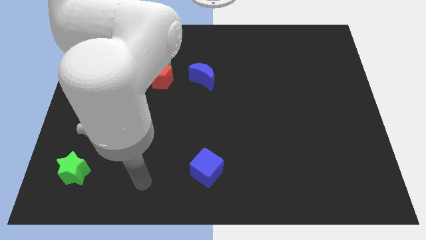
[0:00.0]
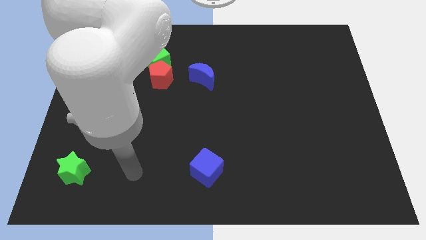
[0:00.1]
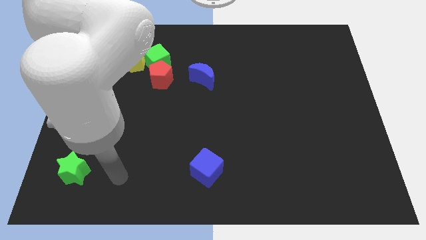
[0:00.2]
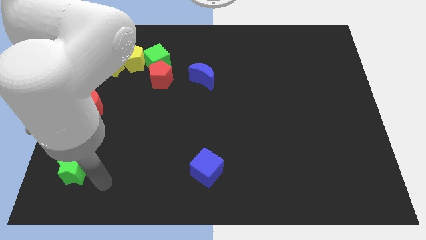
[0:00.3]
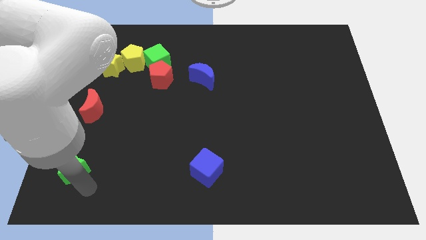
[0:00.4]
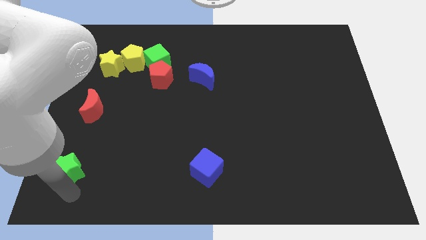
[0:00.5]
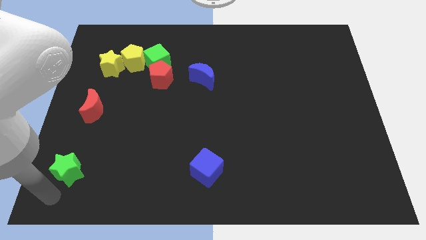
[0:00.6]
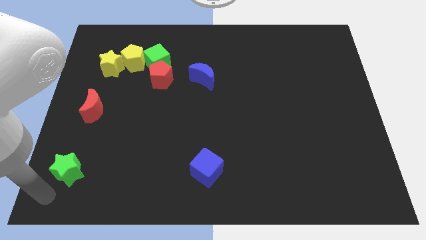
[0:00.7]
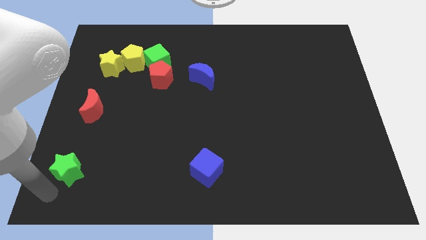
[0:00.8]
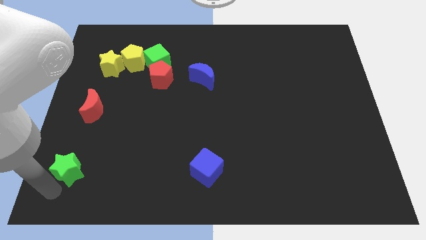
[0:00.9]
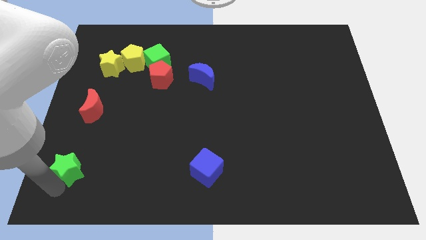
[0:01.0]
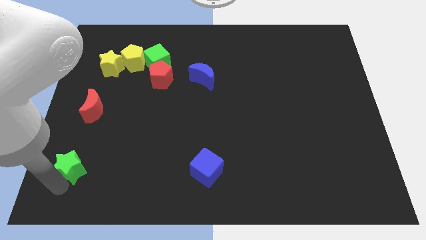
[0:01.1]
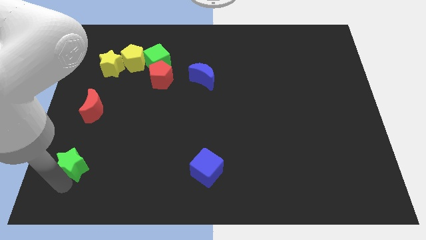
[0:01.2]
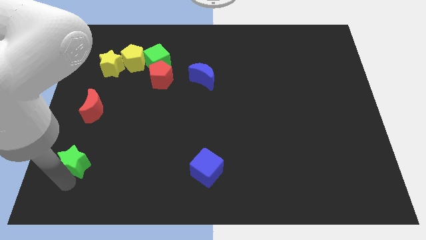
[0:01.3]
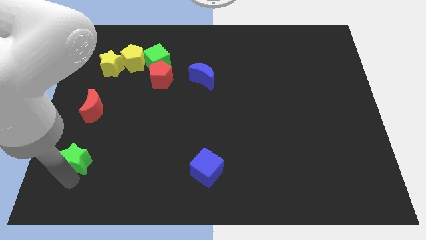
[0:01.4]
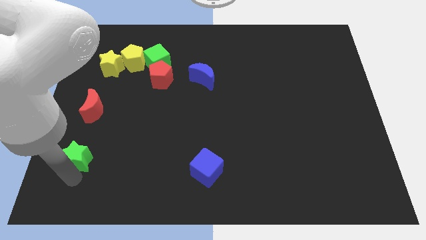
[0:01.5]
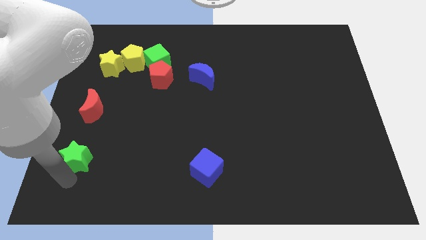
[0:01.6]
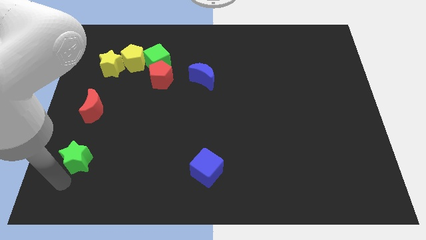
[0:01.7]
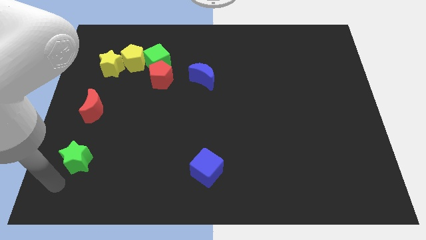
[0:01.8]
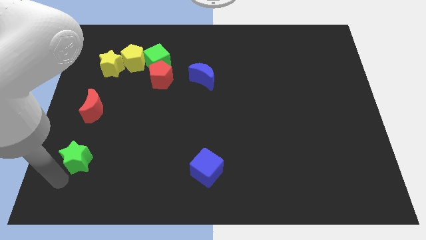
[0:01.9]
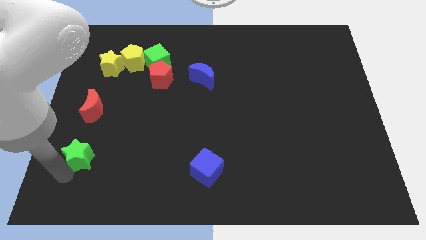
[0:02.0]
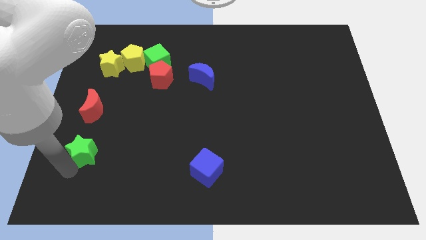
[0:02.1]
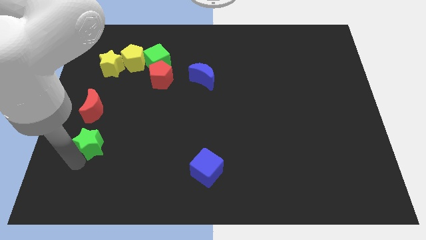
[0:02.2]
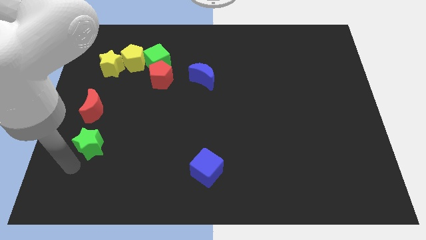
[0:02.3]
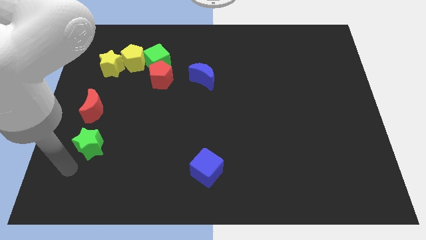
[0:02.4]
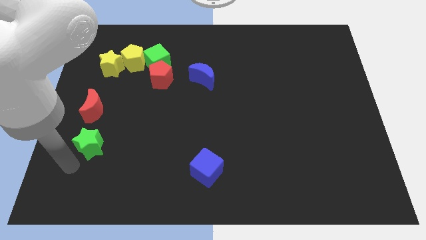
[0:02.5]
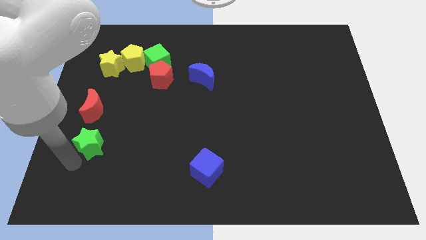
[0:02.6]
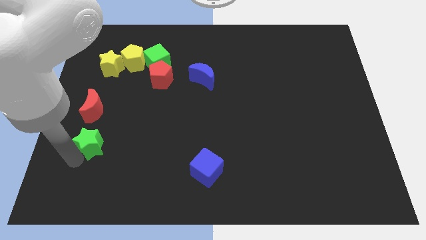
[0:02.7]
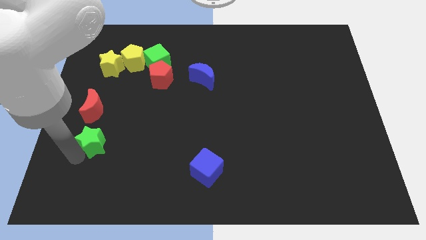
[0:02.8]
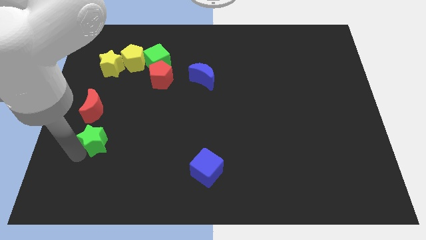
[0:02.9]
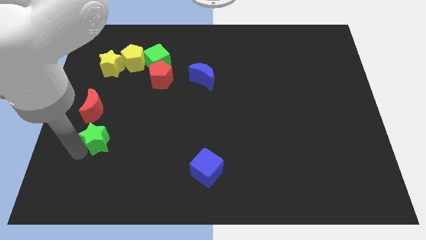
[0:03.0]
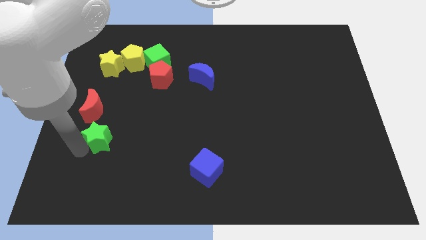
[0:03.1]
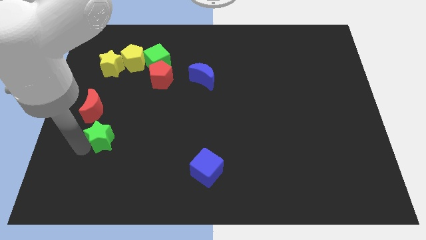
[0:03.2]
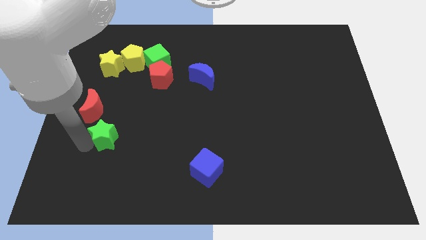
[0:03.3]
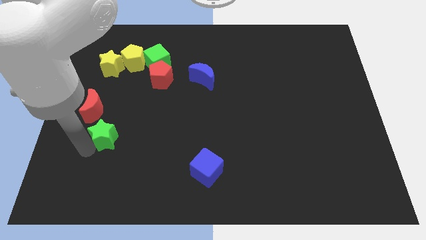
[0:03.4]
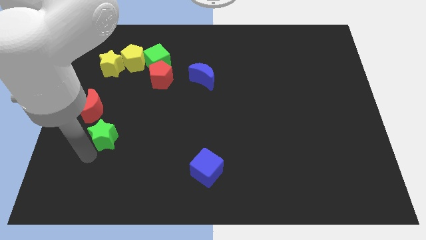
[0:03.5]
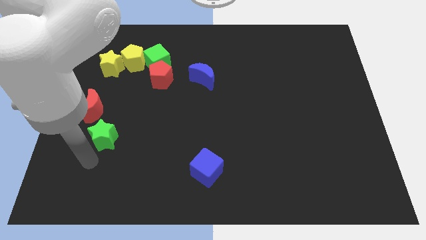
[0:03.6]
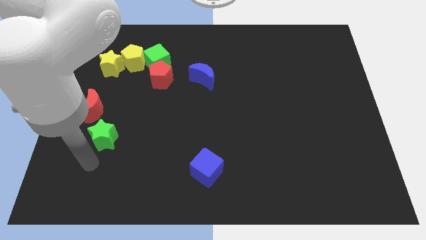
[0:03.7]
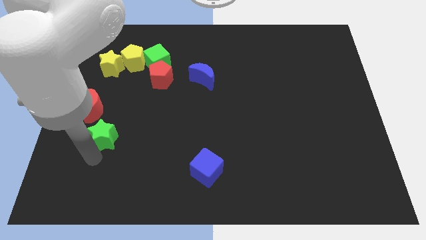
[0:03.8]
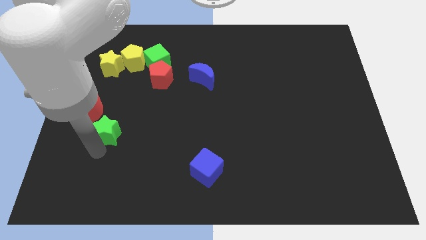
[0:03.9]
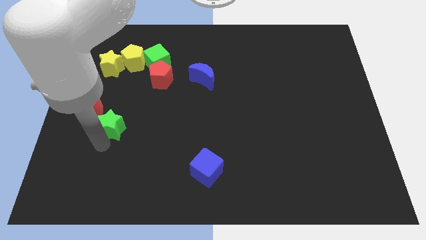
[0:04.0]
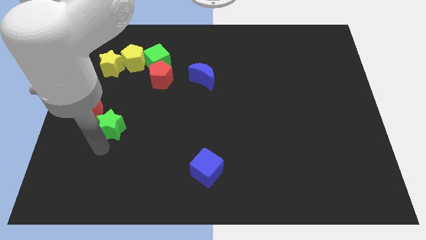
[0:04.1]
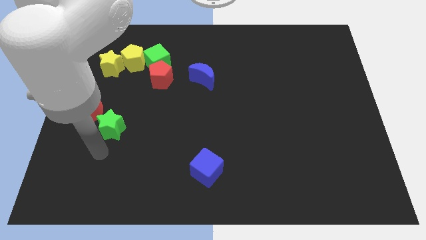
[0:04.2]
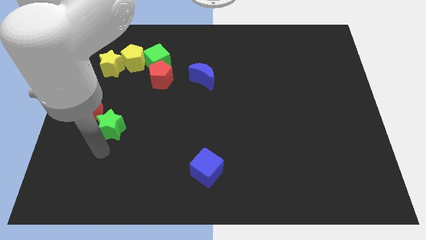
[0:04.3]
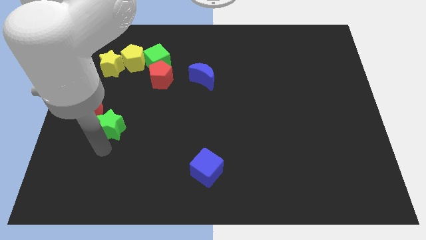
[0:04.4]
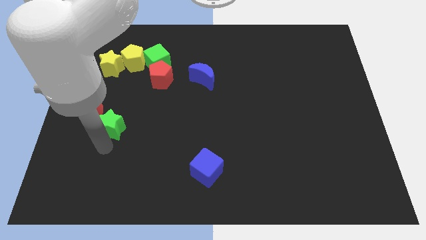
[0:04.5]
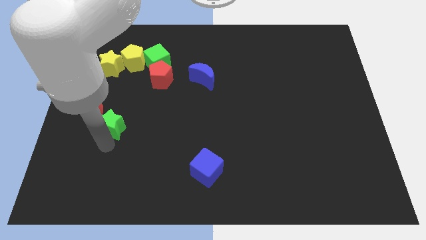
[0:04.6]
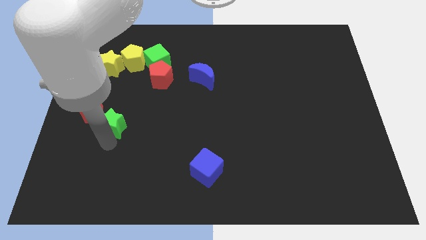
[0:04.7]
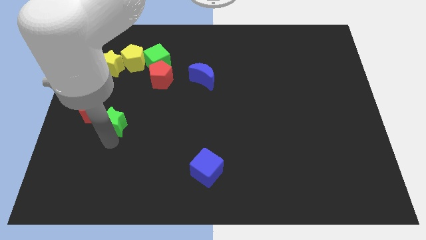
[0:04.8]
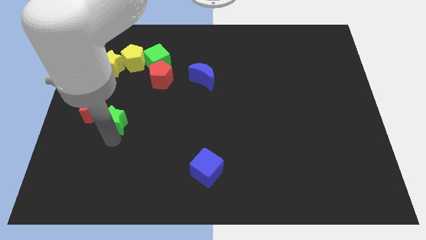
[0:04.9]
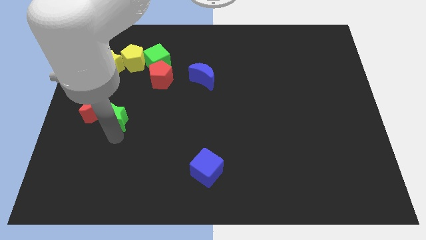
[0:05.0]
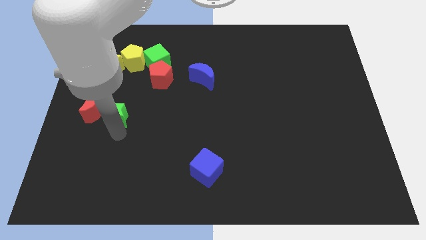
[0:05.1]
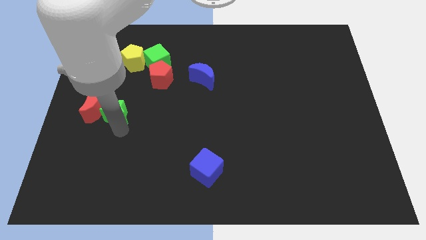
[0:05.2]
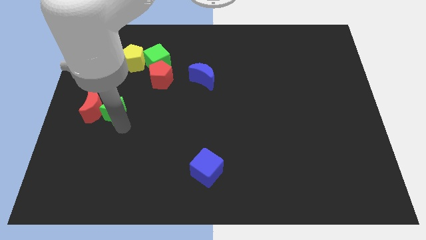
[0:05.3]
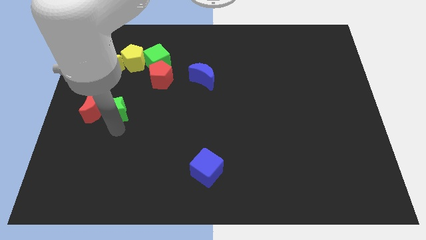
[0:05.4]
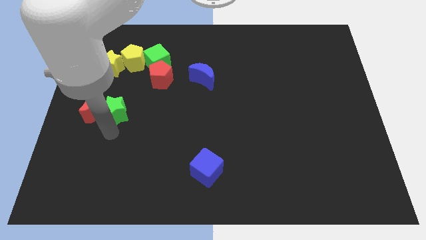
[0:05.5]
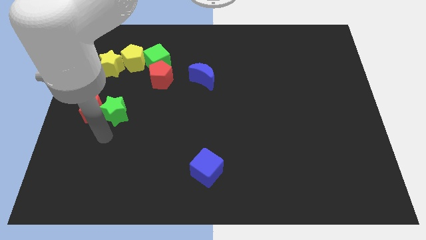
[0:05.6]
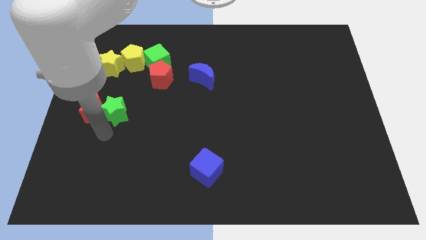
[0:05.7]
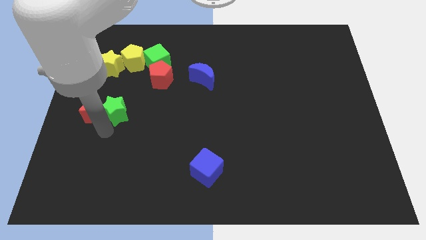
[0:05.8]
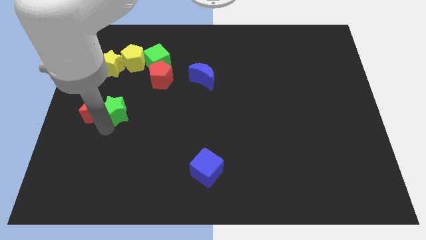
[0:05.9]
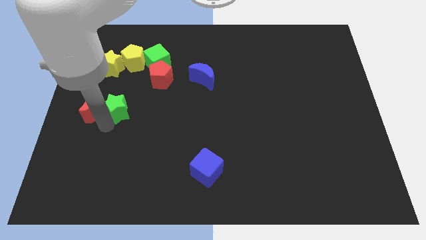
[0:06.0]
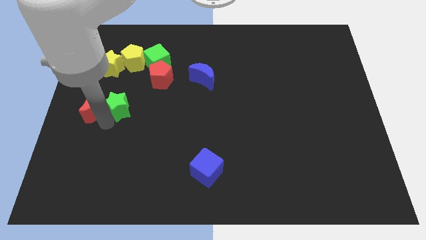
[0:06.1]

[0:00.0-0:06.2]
move the green star to the bottom side of the yellow pentagon

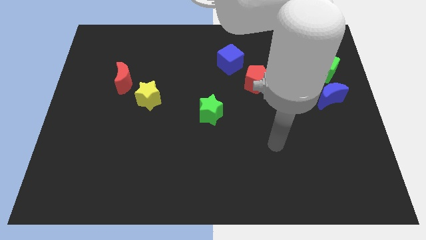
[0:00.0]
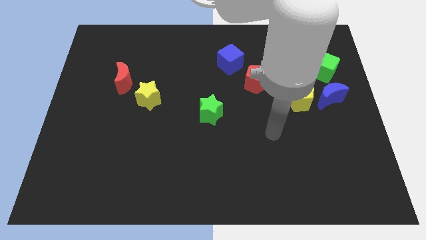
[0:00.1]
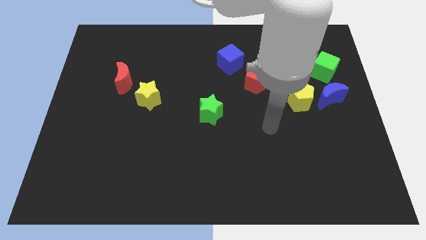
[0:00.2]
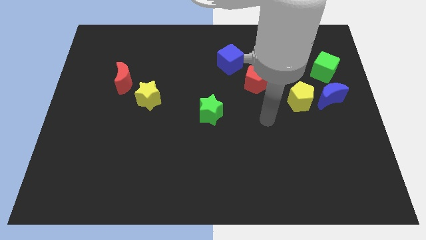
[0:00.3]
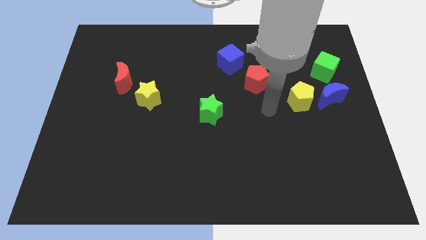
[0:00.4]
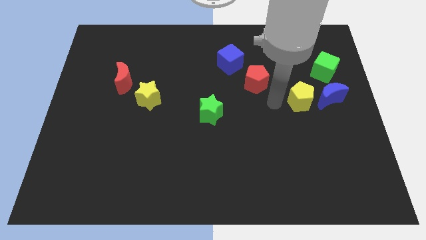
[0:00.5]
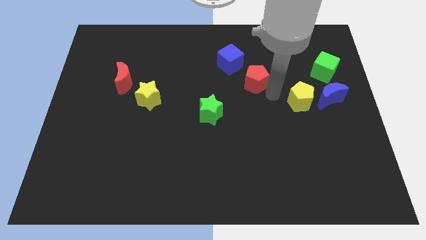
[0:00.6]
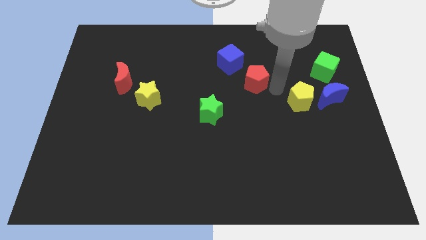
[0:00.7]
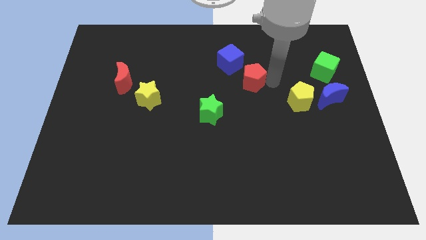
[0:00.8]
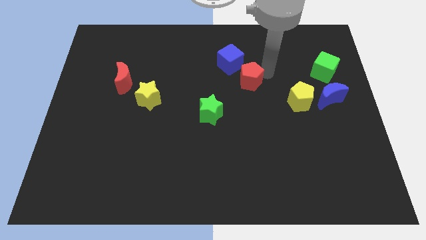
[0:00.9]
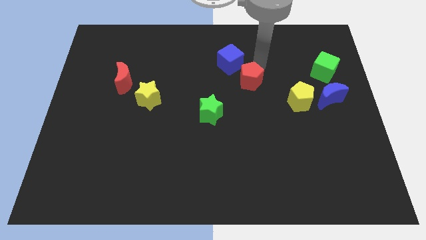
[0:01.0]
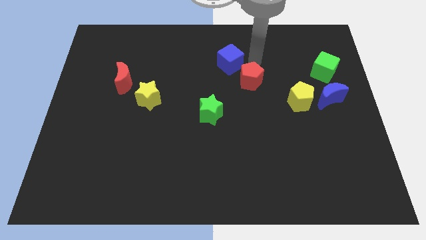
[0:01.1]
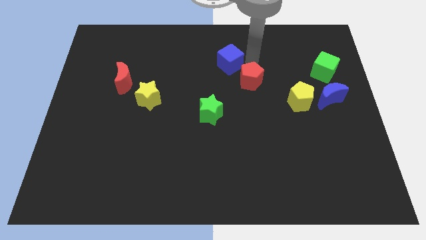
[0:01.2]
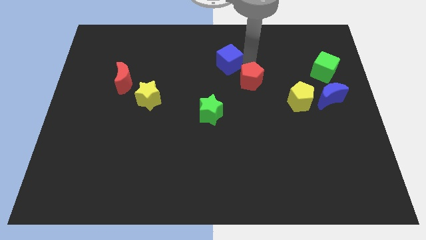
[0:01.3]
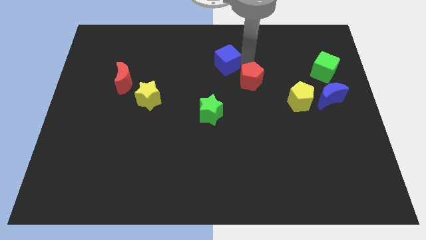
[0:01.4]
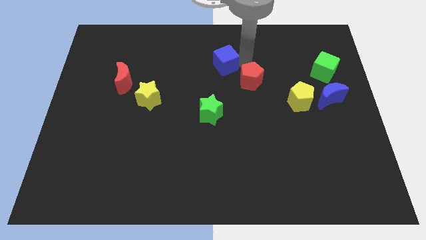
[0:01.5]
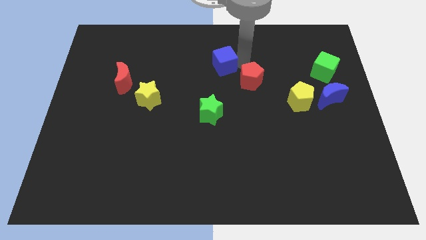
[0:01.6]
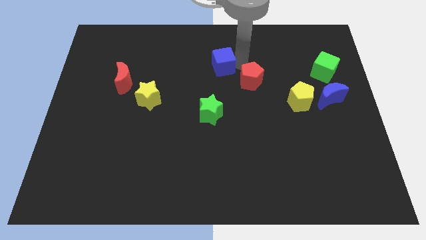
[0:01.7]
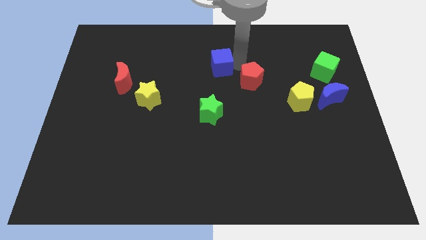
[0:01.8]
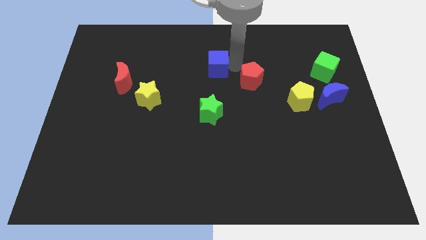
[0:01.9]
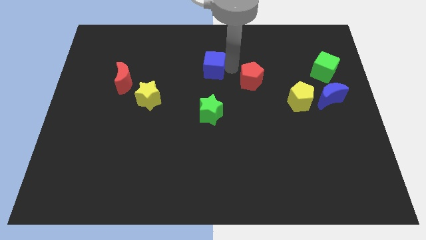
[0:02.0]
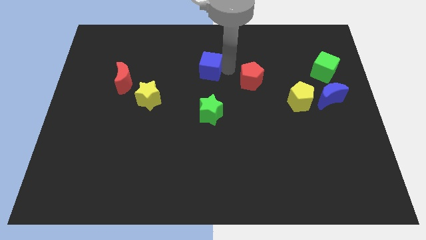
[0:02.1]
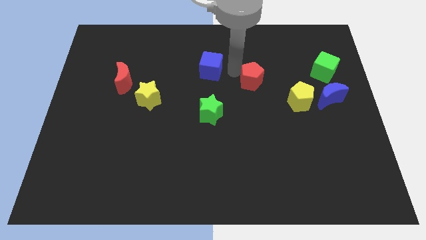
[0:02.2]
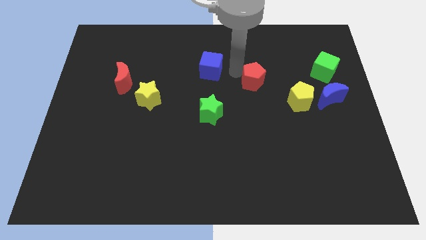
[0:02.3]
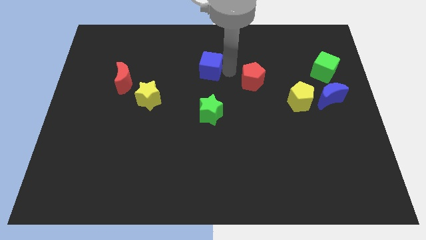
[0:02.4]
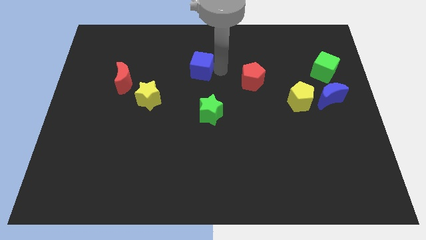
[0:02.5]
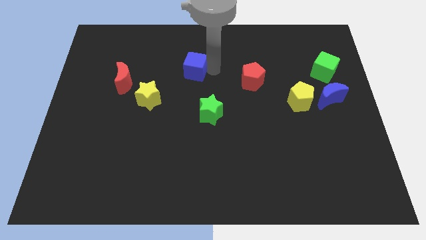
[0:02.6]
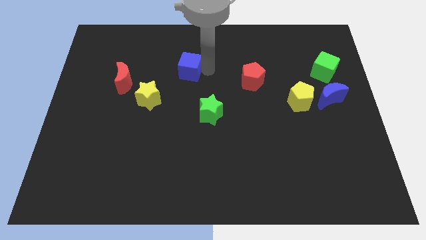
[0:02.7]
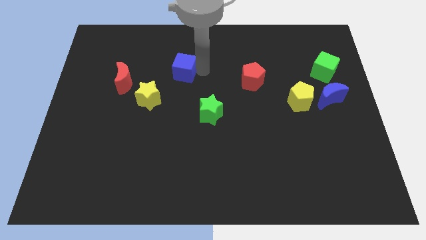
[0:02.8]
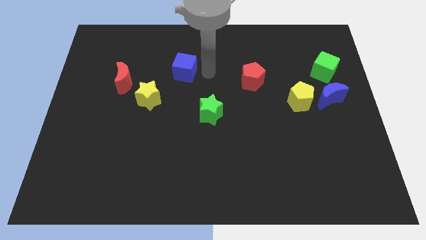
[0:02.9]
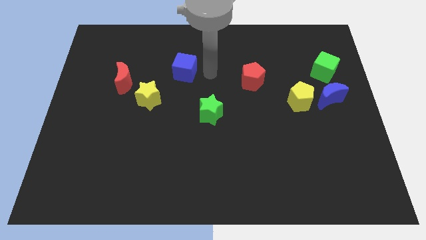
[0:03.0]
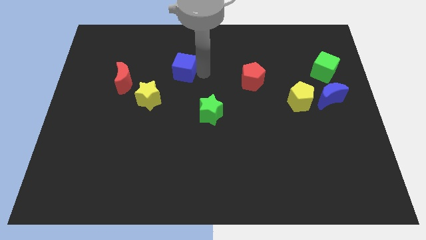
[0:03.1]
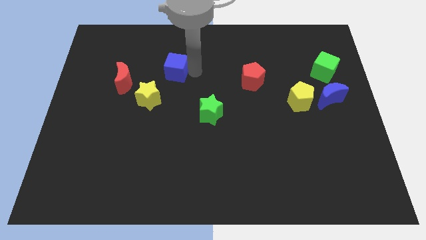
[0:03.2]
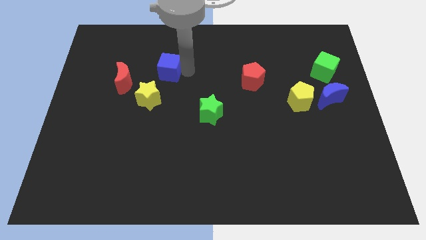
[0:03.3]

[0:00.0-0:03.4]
slide the blue cube to the top of the yellow star
